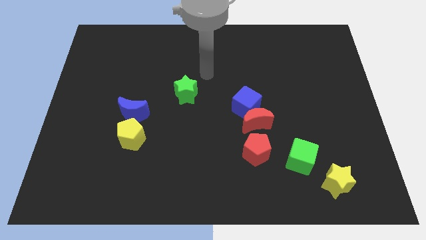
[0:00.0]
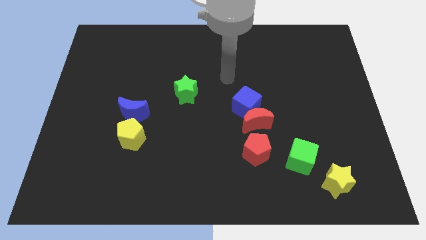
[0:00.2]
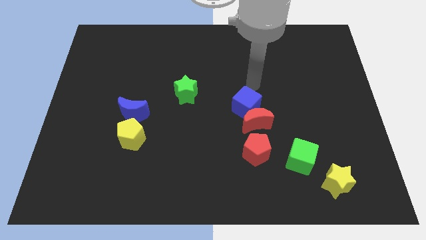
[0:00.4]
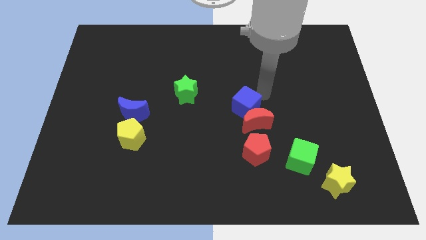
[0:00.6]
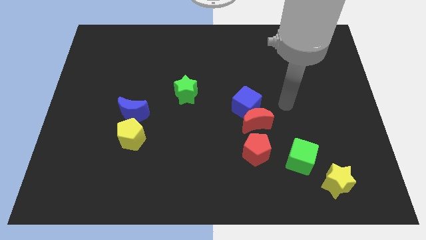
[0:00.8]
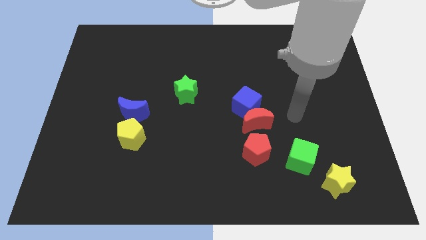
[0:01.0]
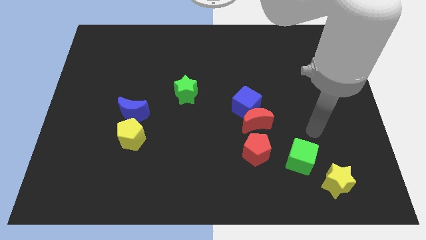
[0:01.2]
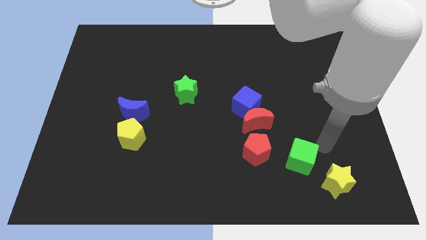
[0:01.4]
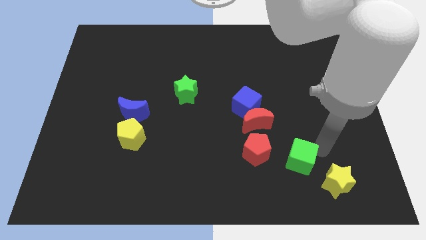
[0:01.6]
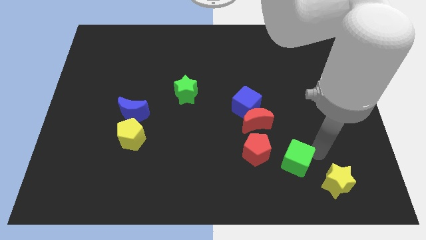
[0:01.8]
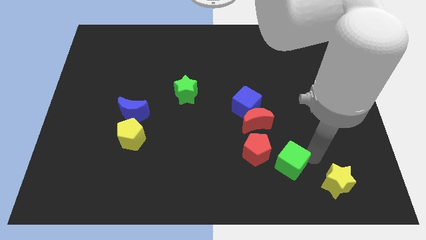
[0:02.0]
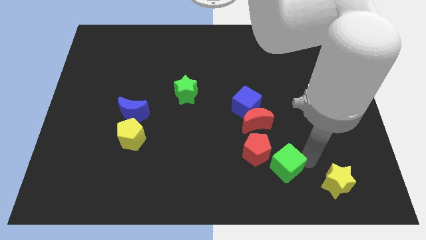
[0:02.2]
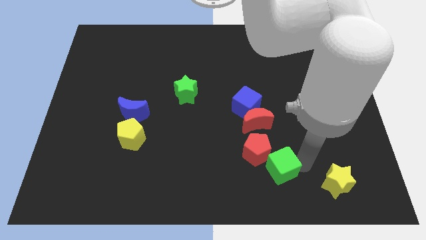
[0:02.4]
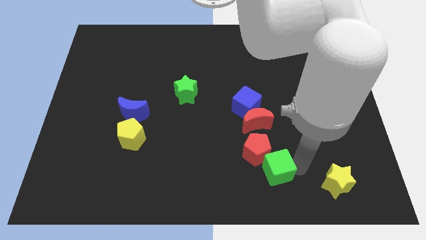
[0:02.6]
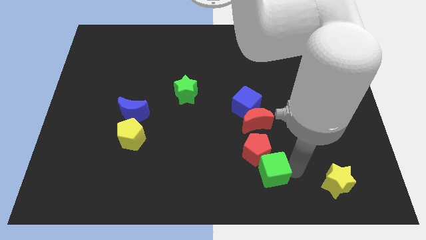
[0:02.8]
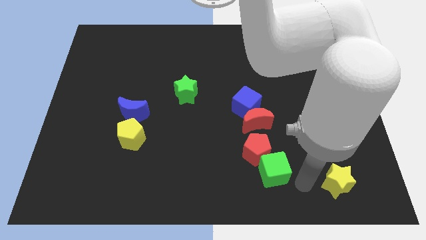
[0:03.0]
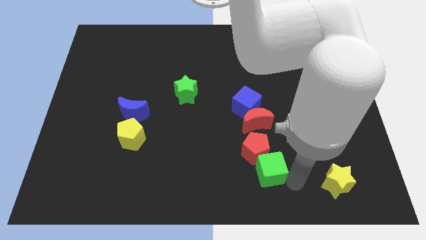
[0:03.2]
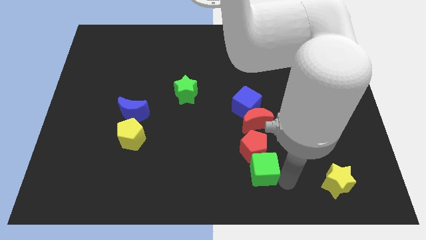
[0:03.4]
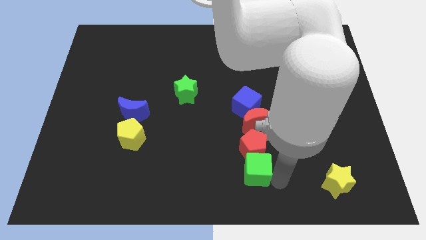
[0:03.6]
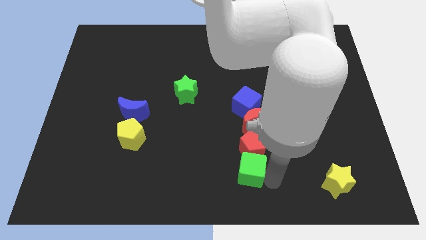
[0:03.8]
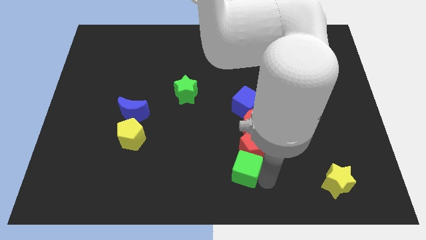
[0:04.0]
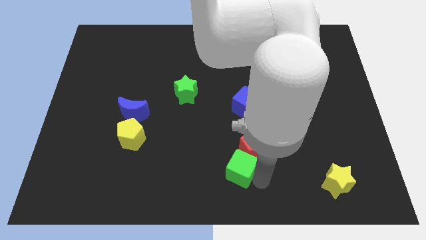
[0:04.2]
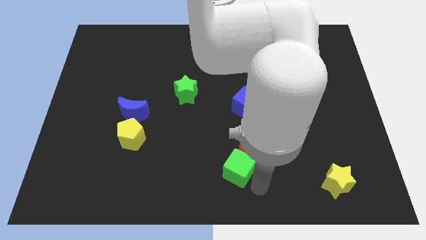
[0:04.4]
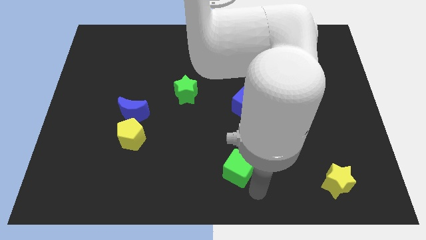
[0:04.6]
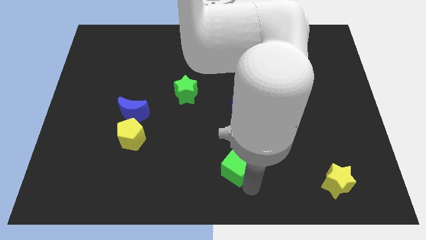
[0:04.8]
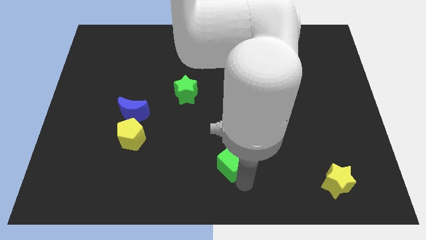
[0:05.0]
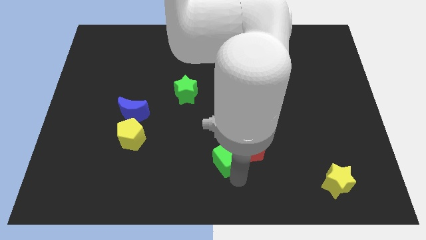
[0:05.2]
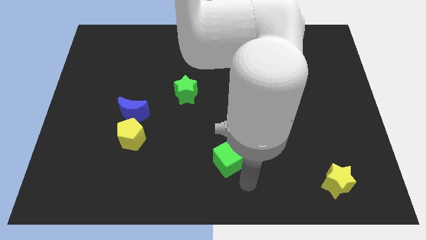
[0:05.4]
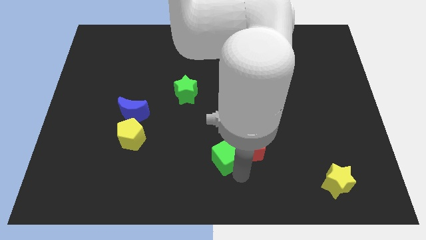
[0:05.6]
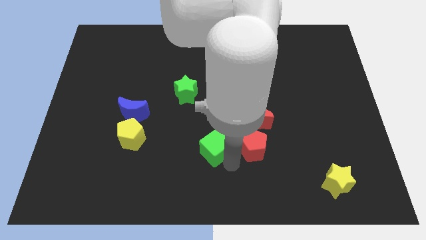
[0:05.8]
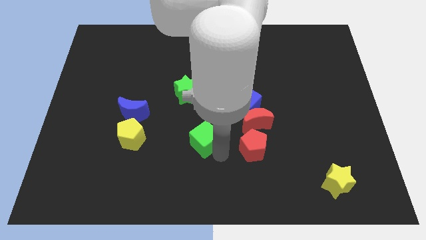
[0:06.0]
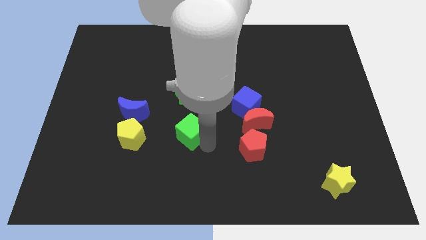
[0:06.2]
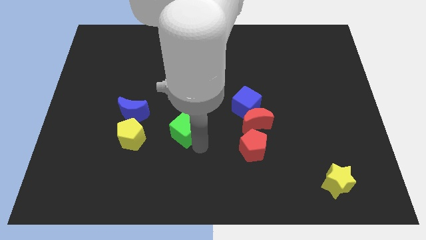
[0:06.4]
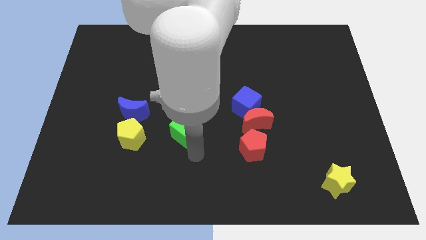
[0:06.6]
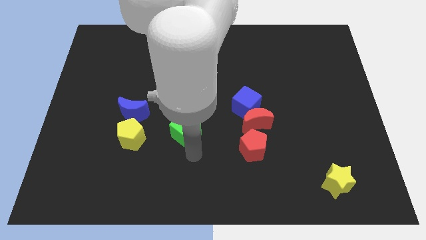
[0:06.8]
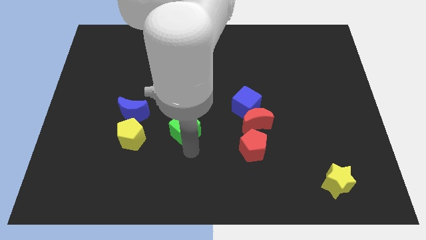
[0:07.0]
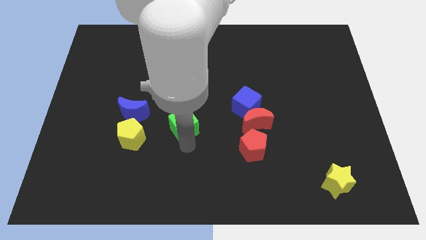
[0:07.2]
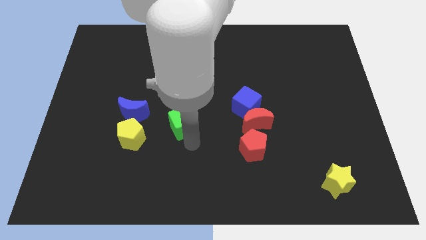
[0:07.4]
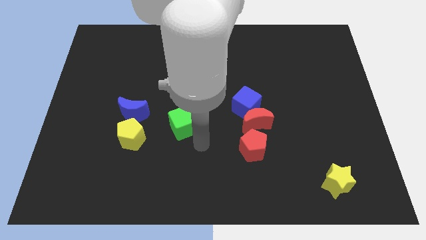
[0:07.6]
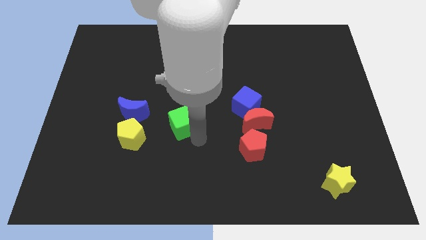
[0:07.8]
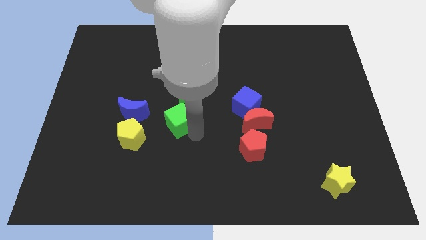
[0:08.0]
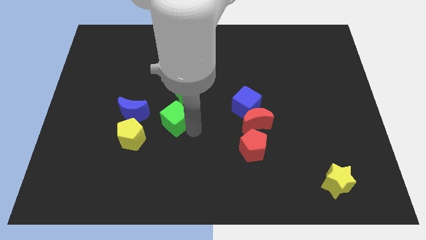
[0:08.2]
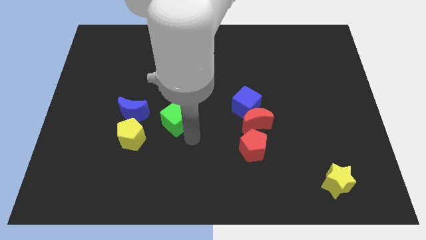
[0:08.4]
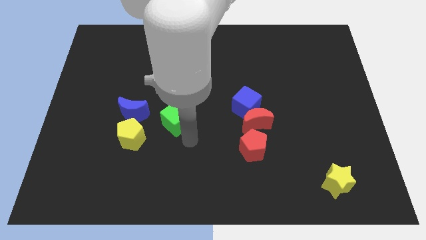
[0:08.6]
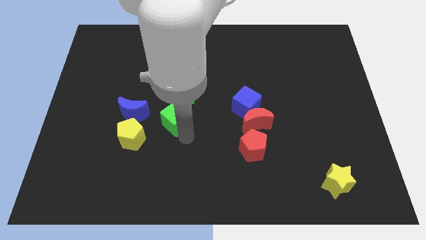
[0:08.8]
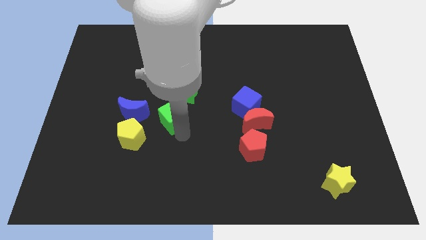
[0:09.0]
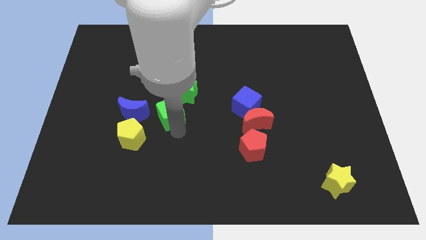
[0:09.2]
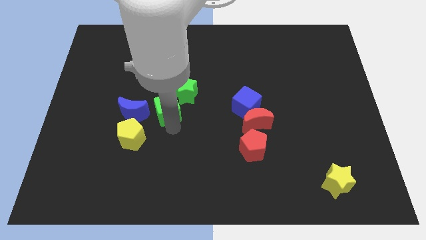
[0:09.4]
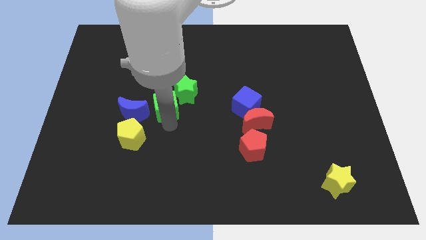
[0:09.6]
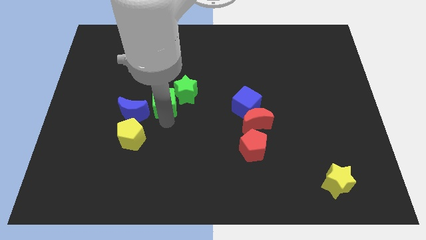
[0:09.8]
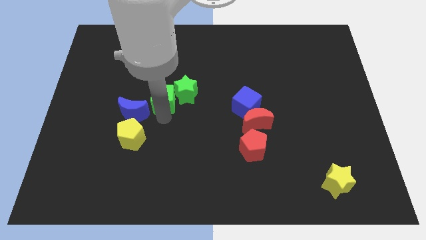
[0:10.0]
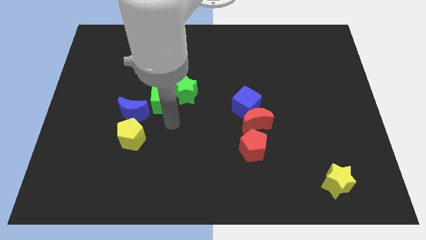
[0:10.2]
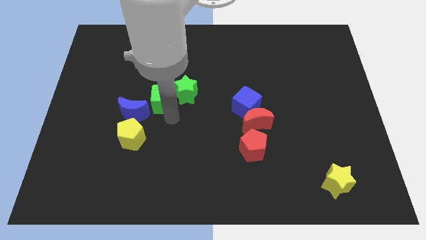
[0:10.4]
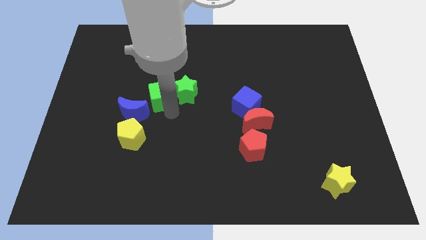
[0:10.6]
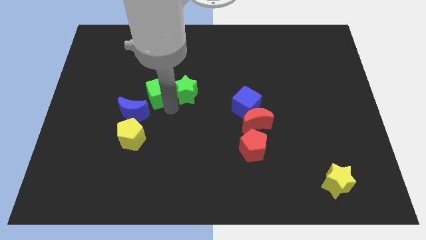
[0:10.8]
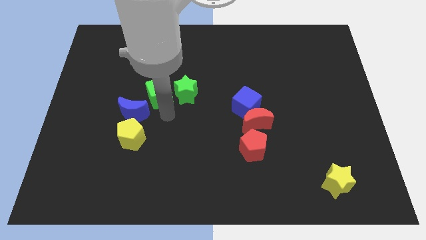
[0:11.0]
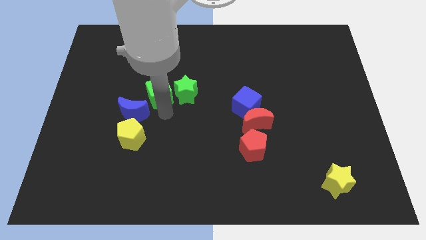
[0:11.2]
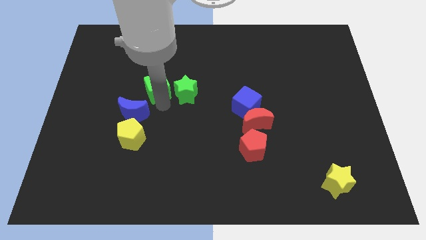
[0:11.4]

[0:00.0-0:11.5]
slide the green cube above the blue moon

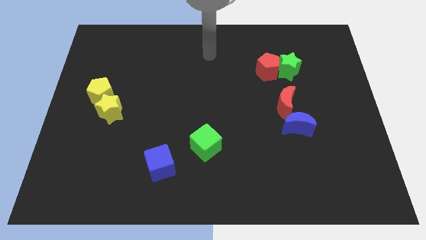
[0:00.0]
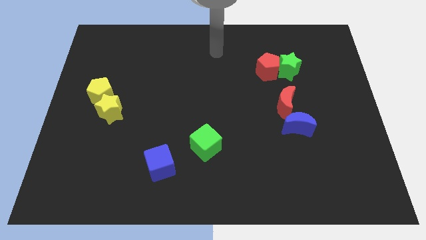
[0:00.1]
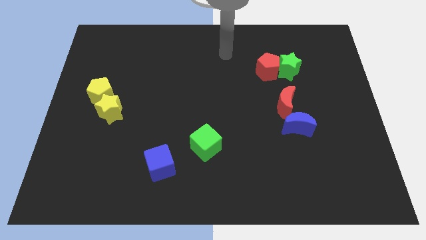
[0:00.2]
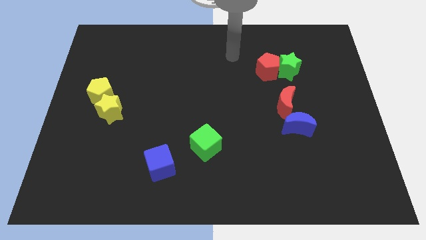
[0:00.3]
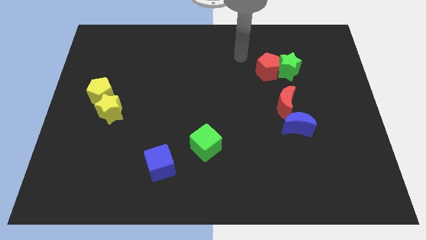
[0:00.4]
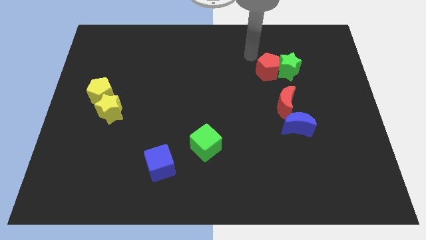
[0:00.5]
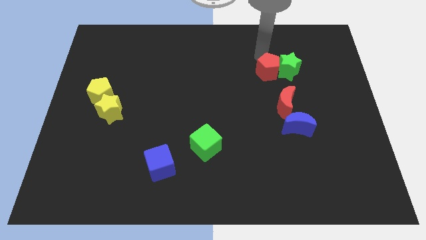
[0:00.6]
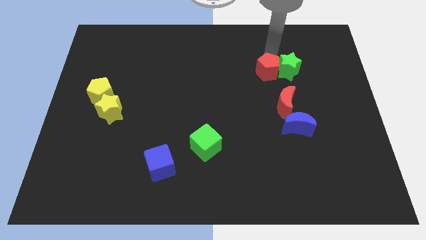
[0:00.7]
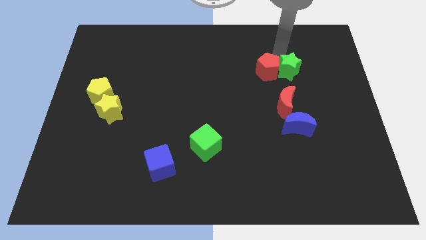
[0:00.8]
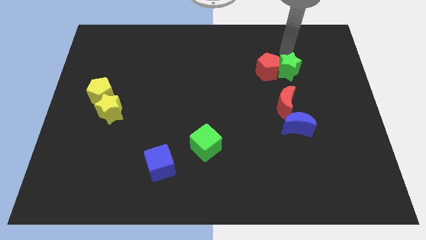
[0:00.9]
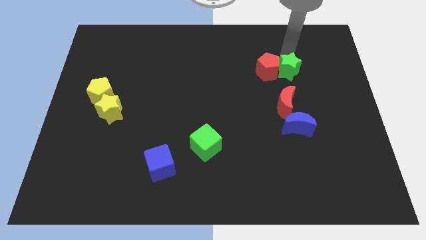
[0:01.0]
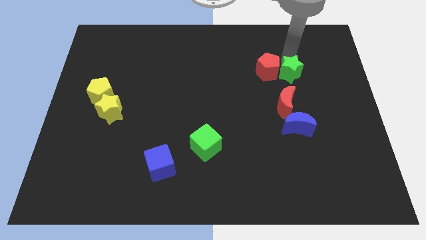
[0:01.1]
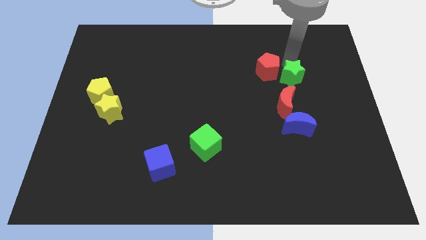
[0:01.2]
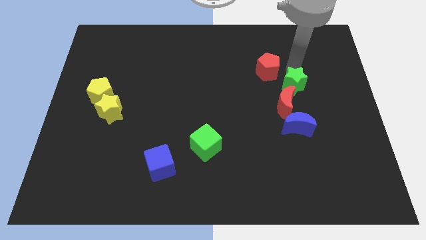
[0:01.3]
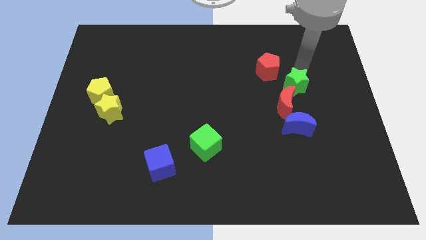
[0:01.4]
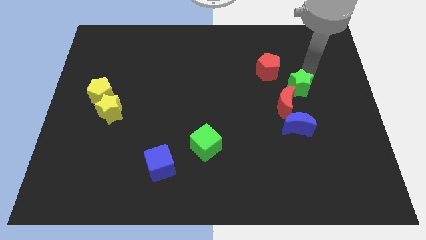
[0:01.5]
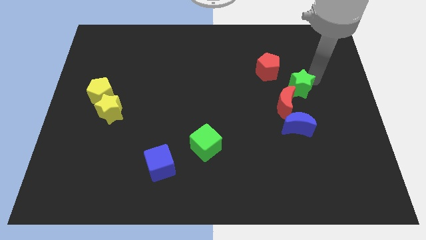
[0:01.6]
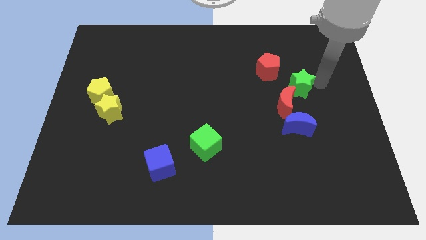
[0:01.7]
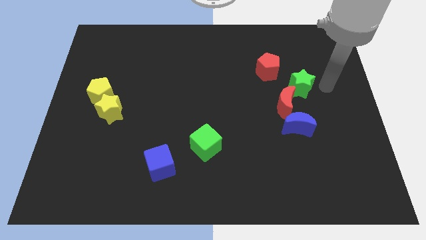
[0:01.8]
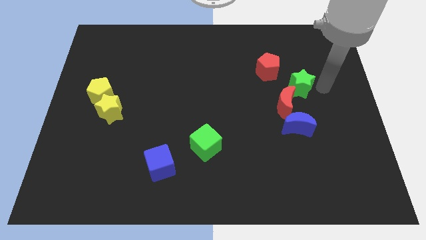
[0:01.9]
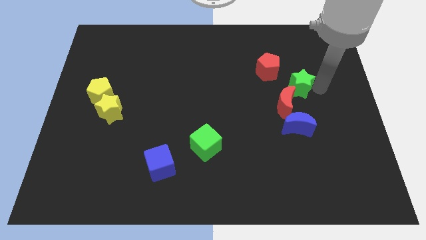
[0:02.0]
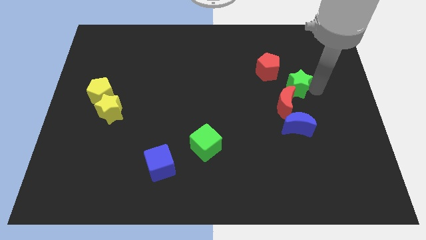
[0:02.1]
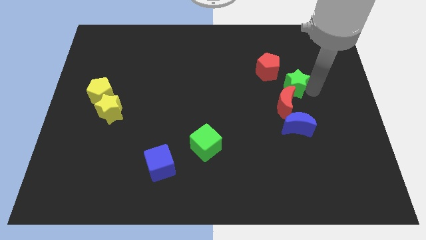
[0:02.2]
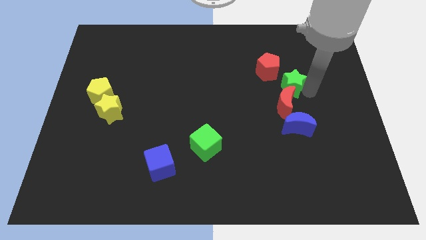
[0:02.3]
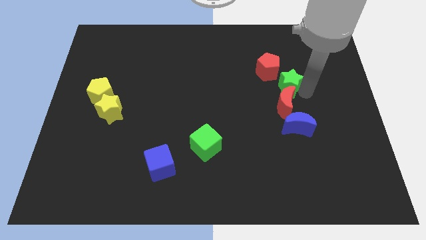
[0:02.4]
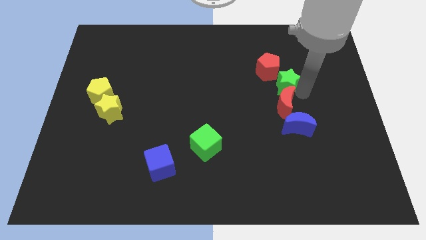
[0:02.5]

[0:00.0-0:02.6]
move the green star to the top left side of the red moon
